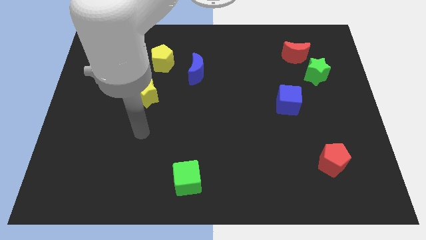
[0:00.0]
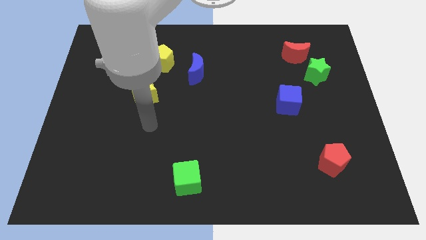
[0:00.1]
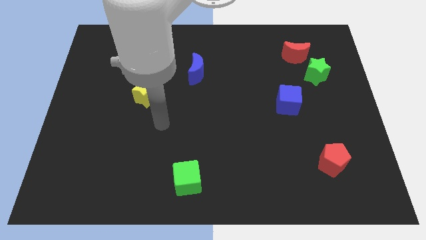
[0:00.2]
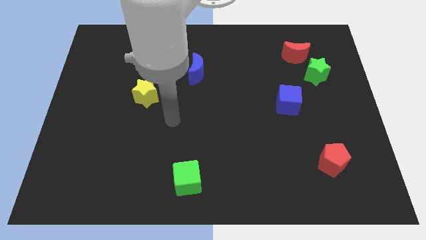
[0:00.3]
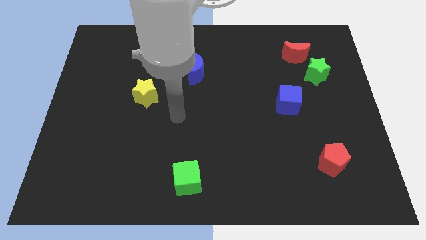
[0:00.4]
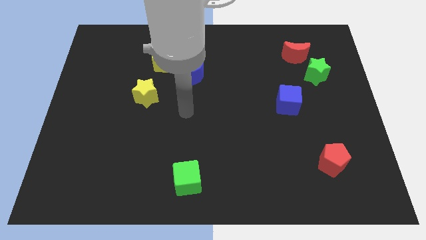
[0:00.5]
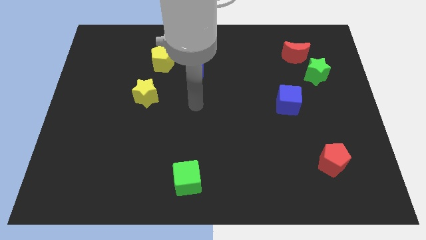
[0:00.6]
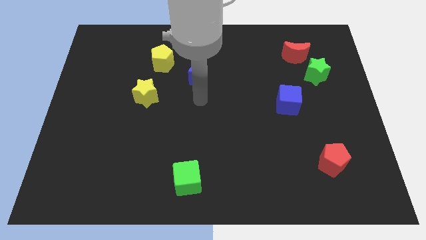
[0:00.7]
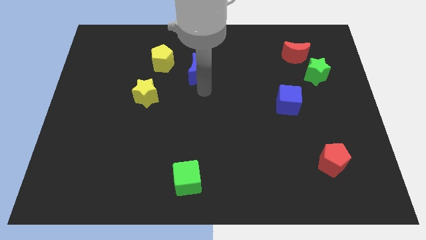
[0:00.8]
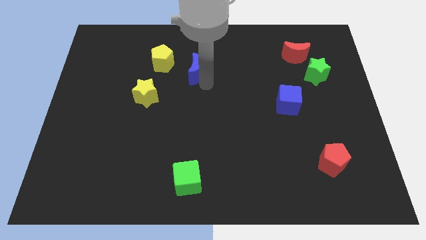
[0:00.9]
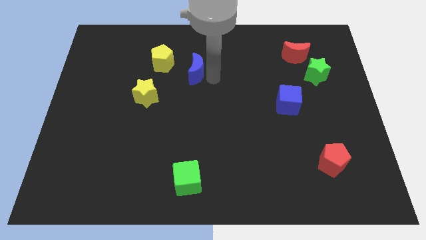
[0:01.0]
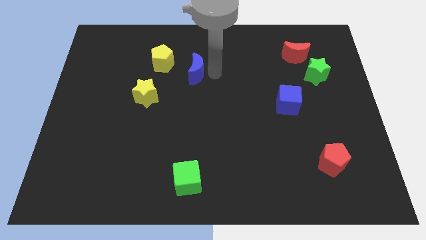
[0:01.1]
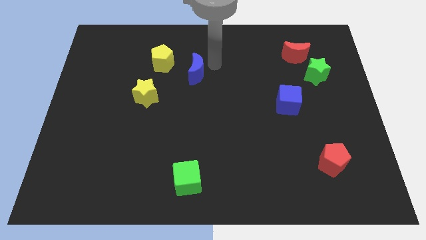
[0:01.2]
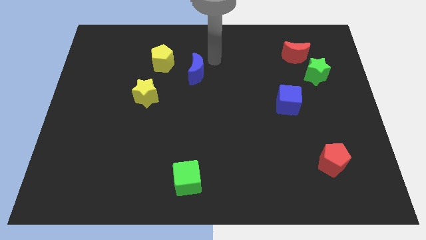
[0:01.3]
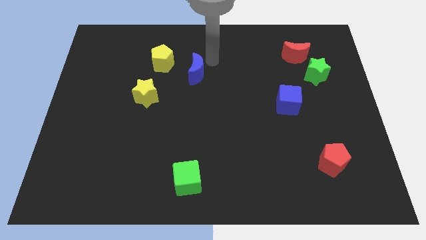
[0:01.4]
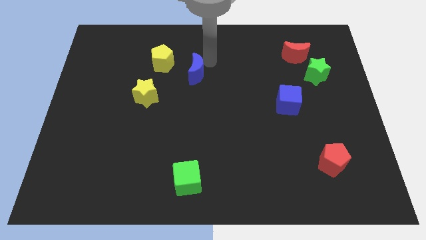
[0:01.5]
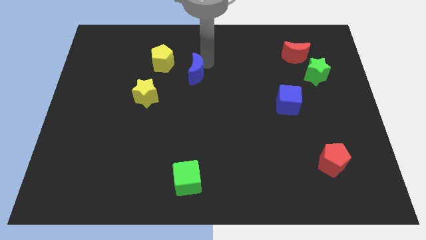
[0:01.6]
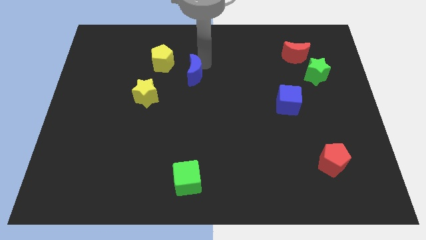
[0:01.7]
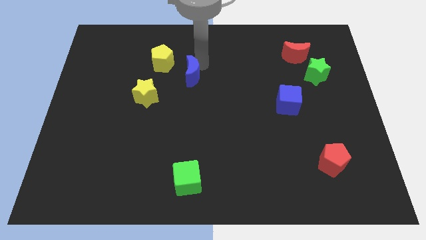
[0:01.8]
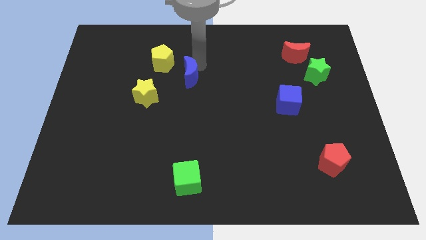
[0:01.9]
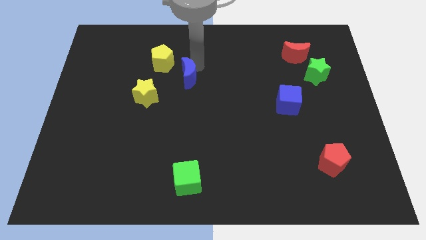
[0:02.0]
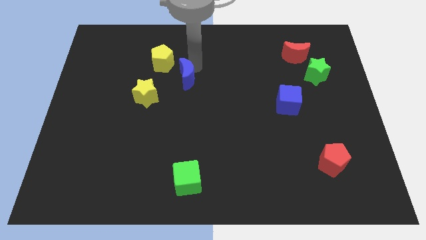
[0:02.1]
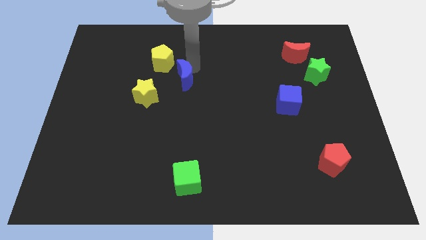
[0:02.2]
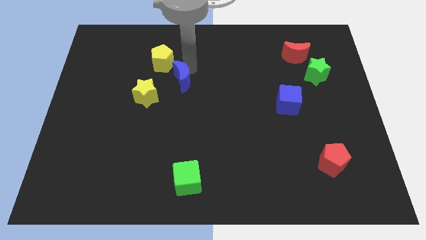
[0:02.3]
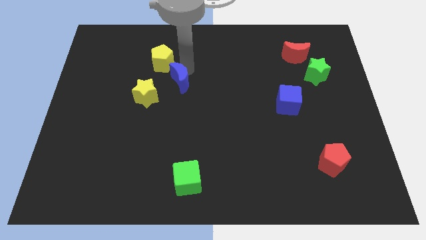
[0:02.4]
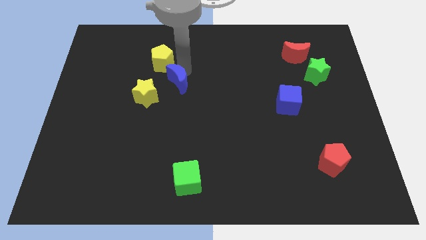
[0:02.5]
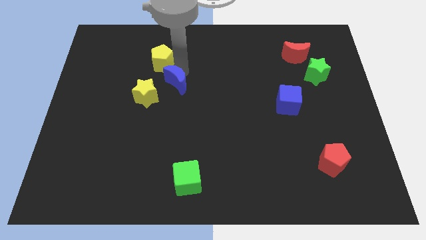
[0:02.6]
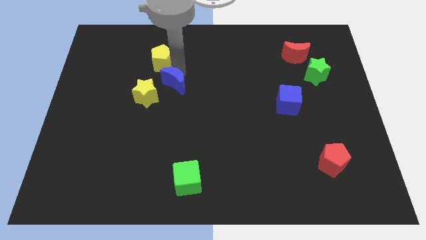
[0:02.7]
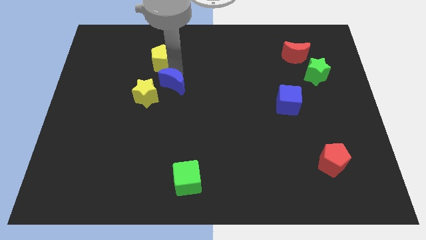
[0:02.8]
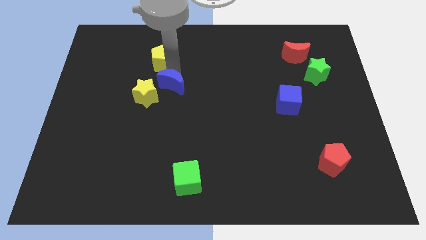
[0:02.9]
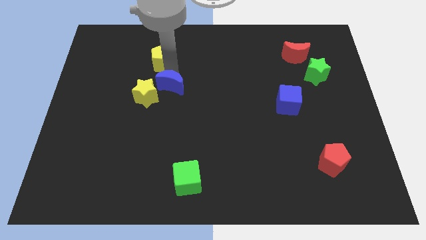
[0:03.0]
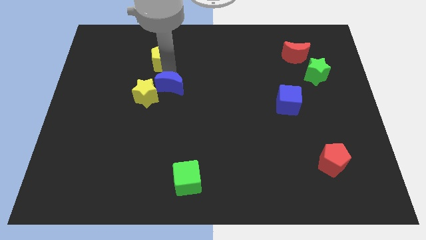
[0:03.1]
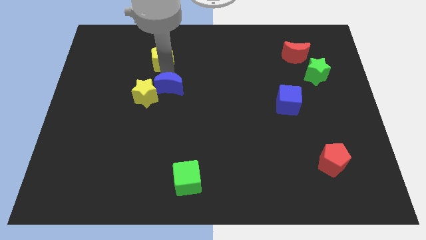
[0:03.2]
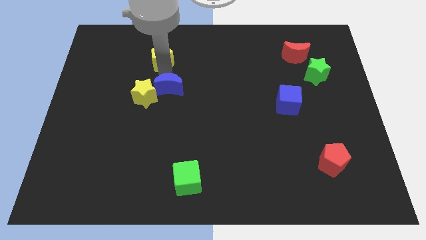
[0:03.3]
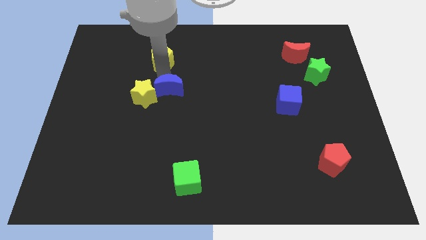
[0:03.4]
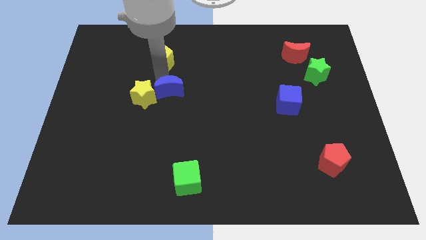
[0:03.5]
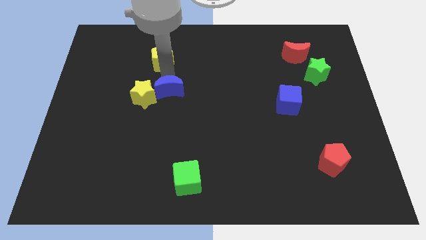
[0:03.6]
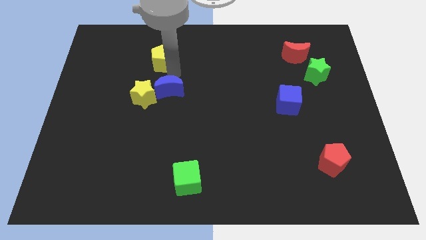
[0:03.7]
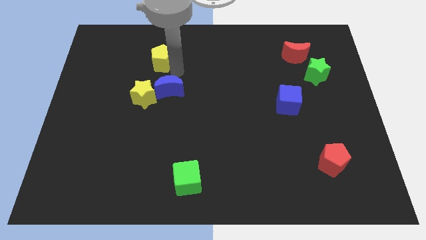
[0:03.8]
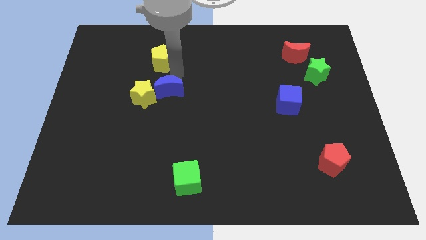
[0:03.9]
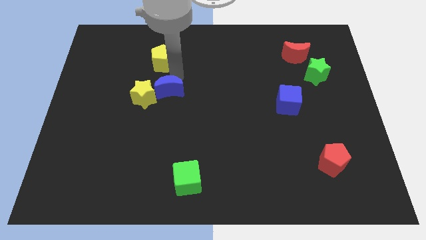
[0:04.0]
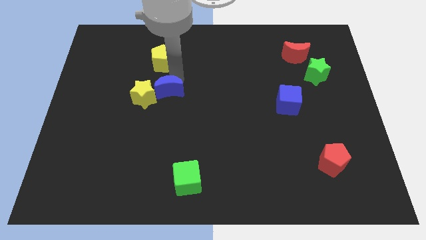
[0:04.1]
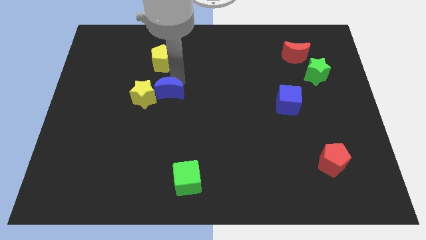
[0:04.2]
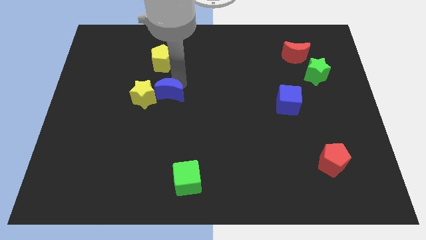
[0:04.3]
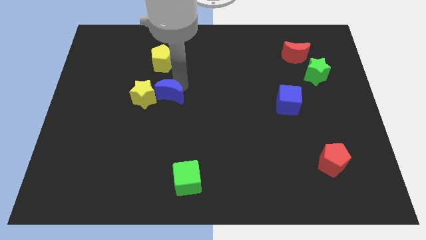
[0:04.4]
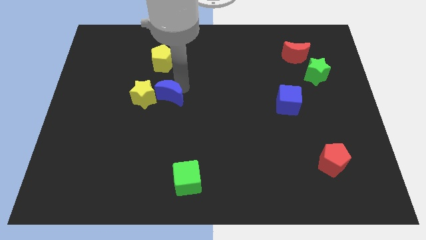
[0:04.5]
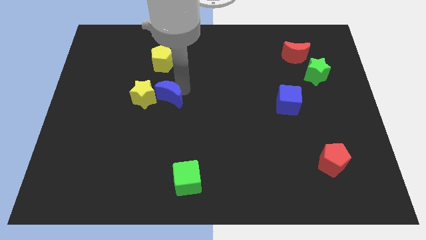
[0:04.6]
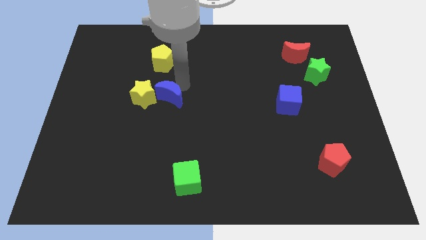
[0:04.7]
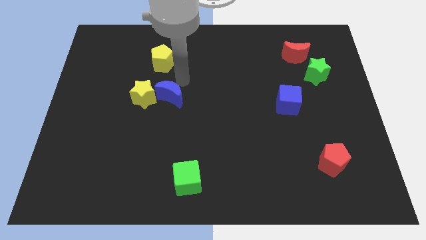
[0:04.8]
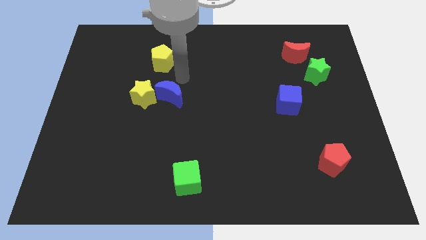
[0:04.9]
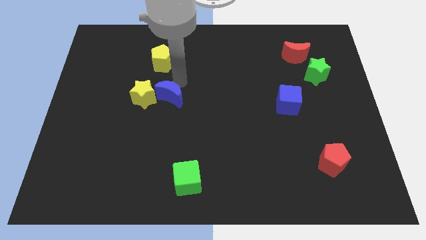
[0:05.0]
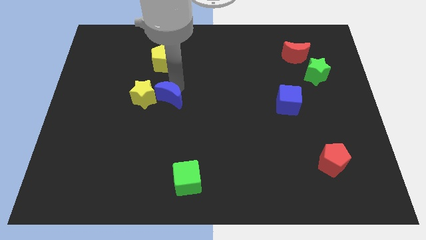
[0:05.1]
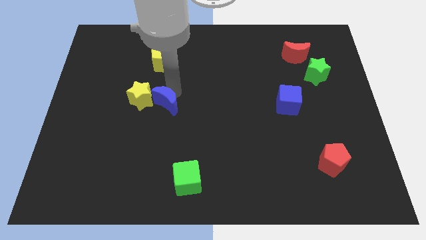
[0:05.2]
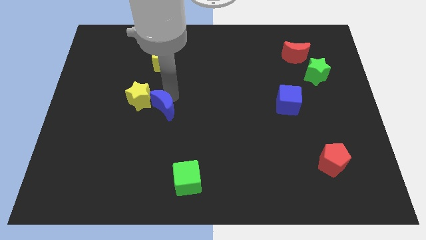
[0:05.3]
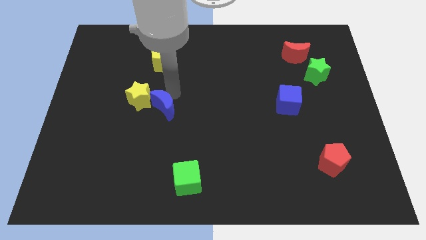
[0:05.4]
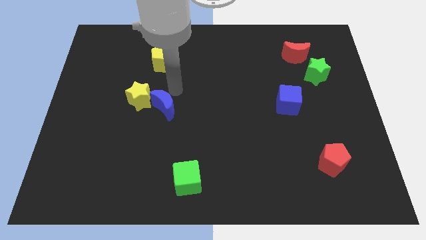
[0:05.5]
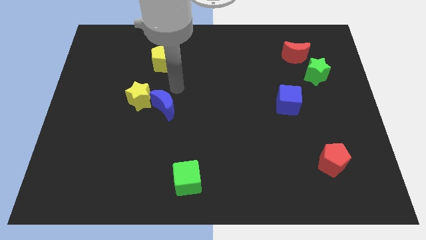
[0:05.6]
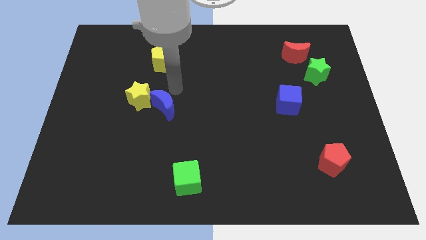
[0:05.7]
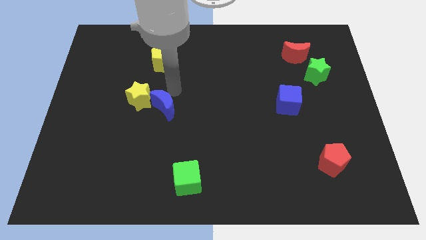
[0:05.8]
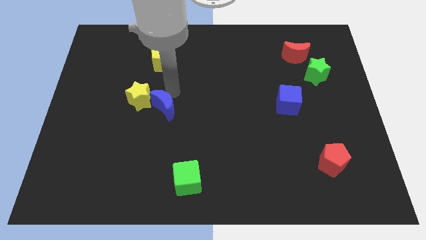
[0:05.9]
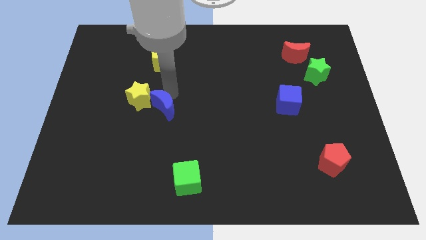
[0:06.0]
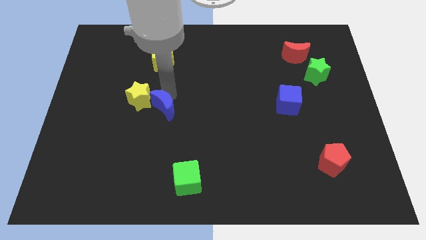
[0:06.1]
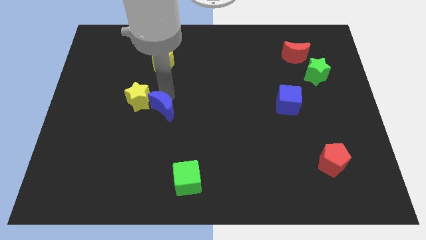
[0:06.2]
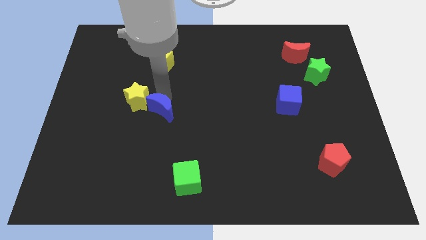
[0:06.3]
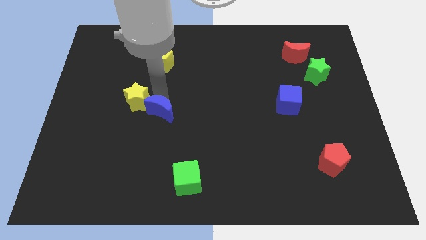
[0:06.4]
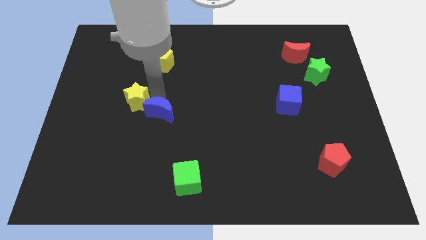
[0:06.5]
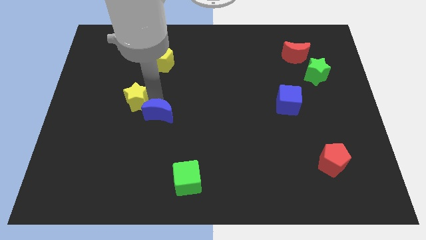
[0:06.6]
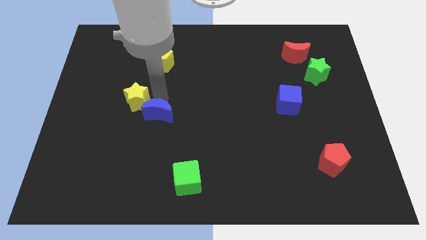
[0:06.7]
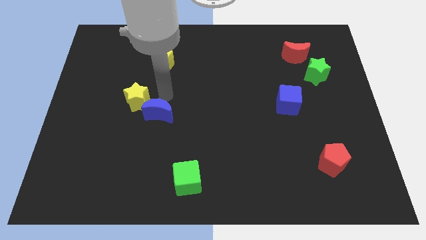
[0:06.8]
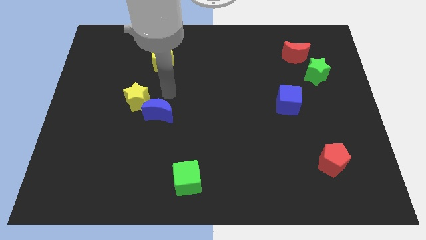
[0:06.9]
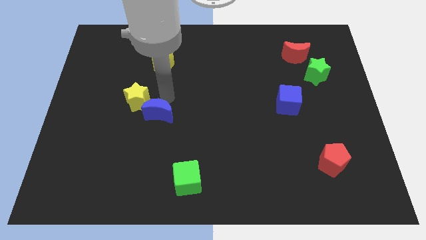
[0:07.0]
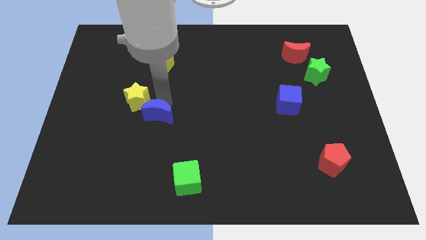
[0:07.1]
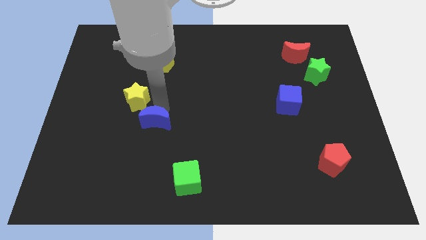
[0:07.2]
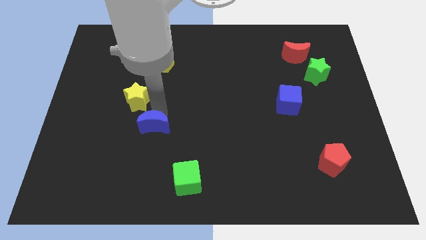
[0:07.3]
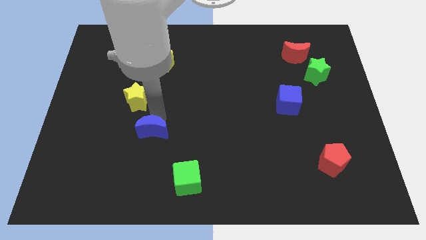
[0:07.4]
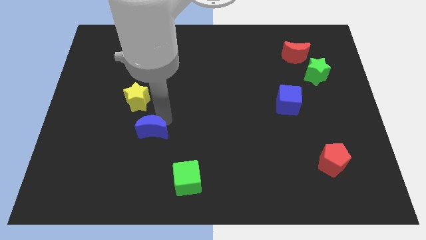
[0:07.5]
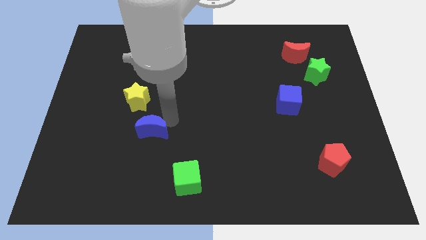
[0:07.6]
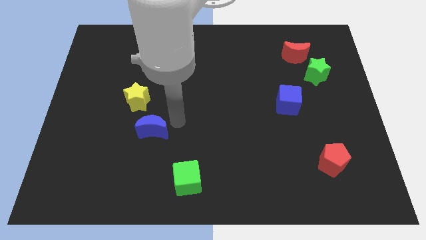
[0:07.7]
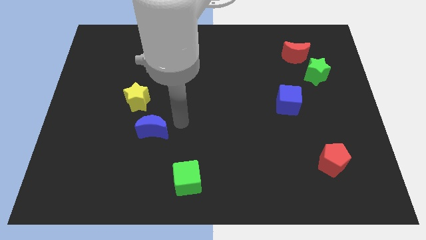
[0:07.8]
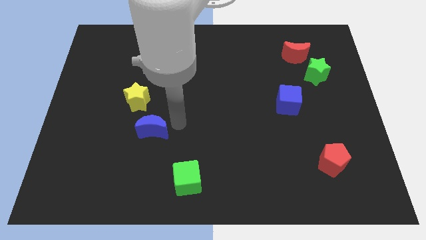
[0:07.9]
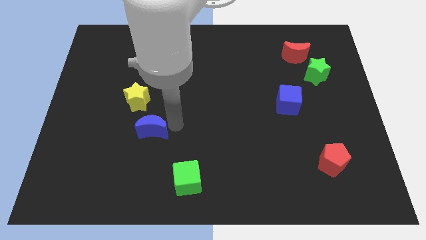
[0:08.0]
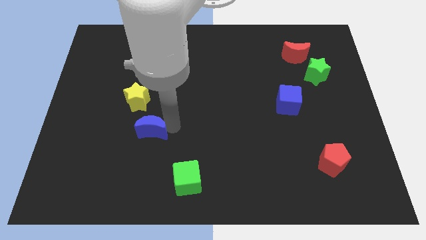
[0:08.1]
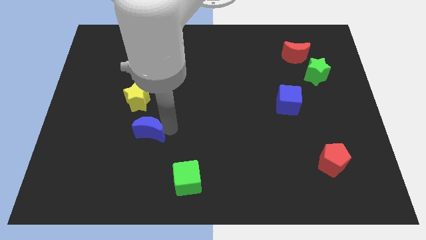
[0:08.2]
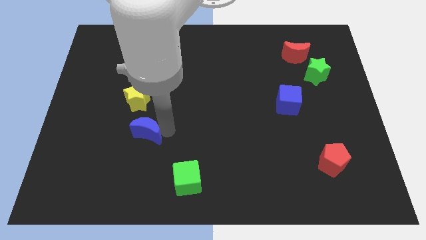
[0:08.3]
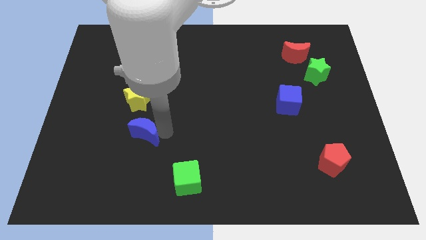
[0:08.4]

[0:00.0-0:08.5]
move the blue moon diagonally down and left
